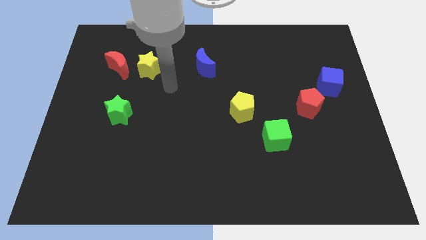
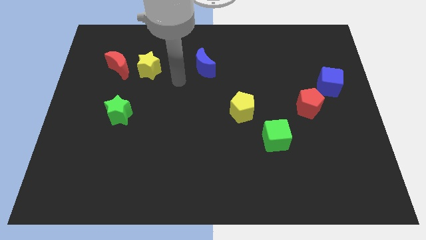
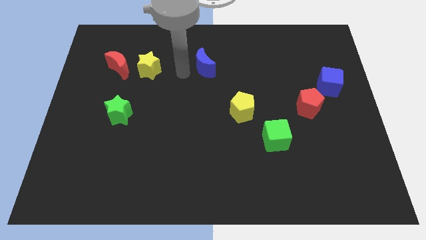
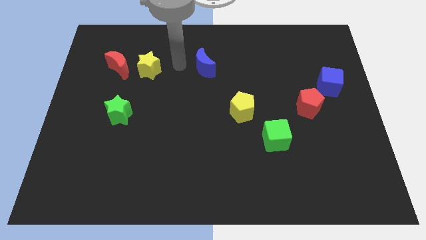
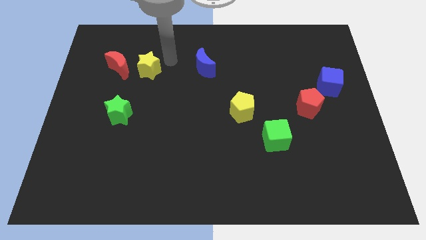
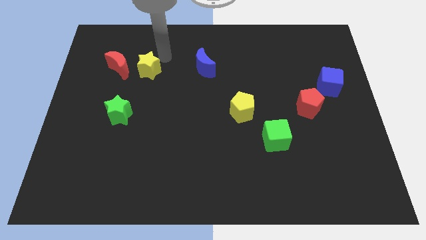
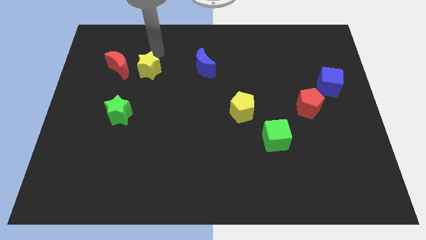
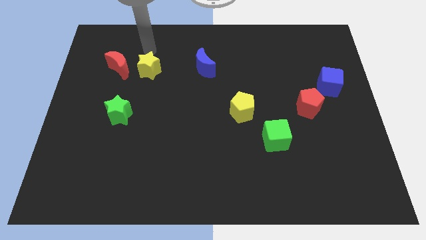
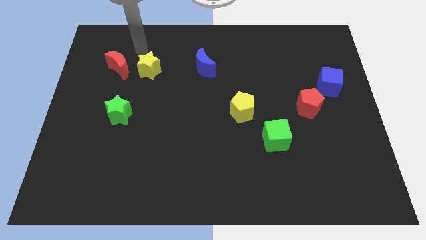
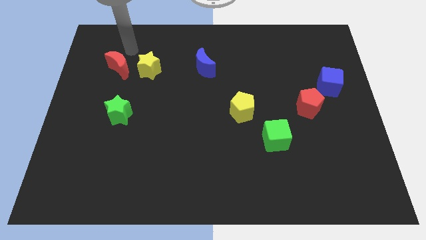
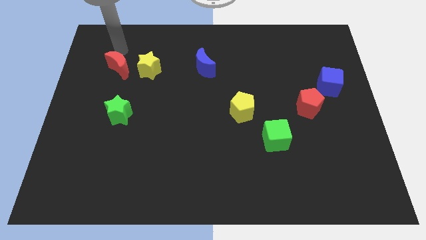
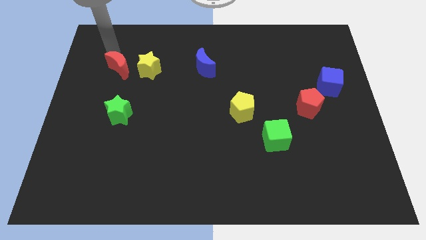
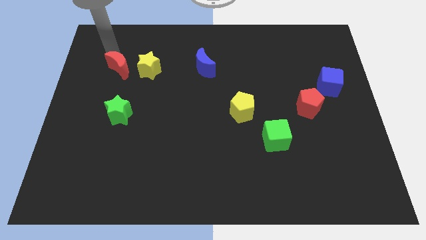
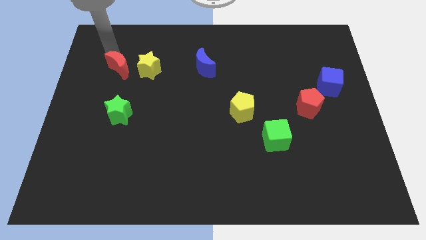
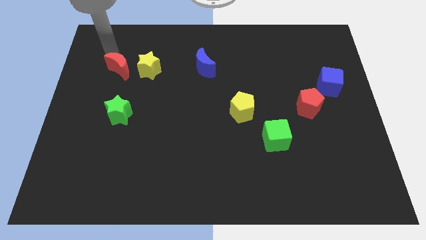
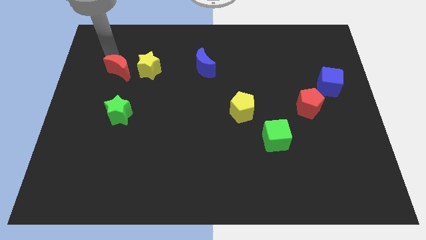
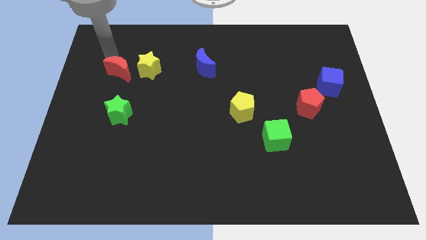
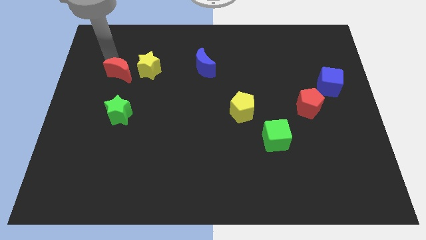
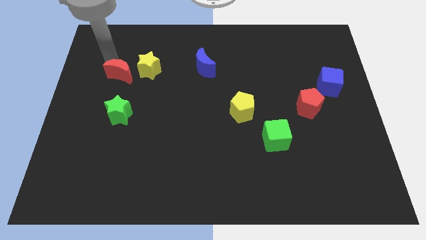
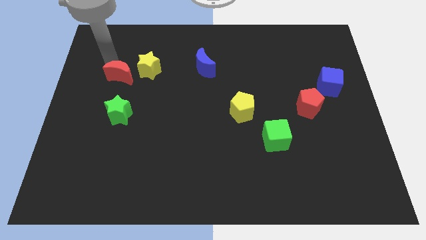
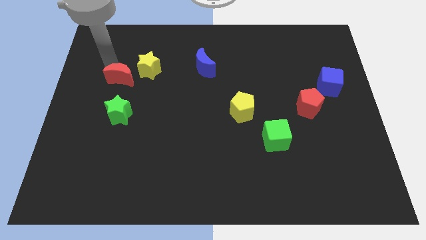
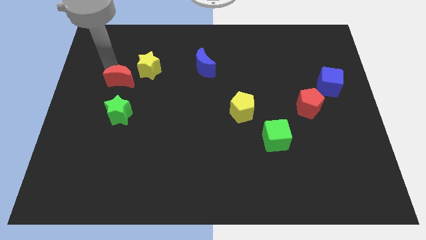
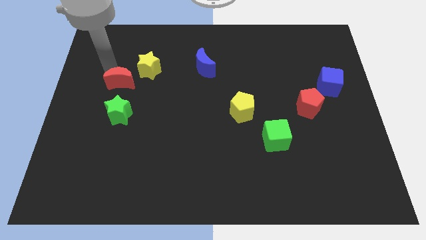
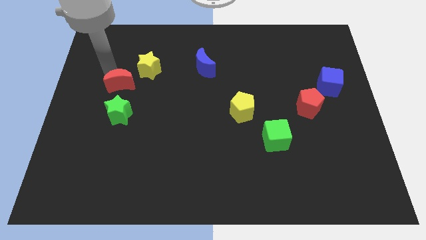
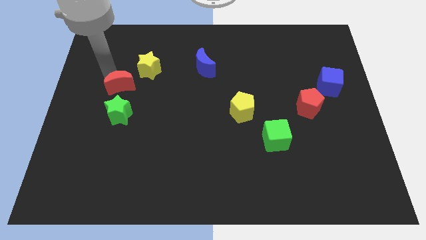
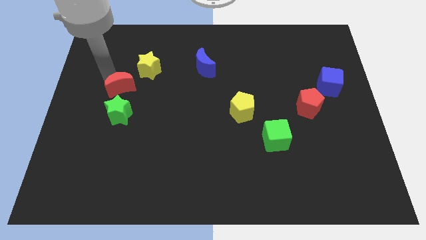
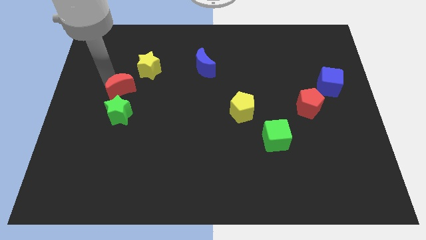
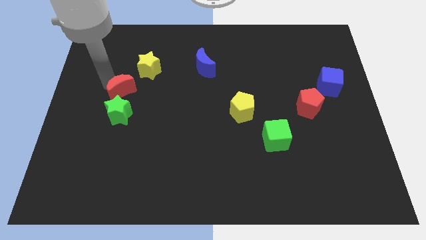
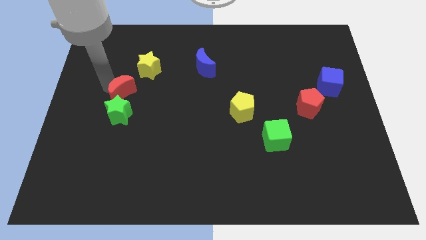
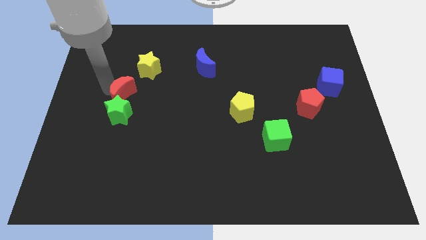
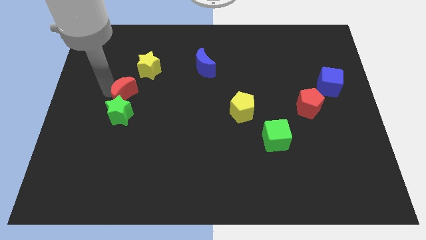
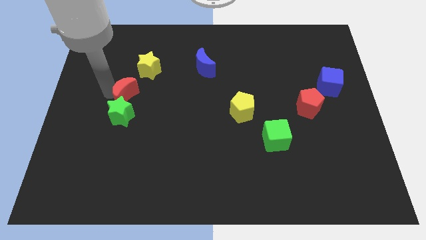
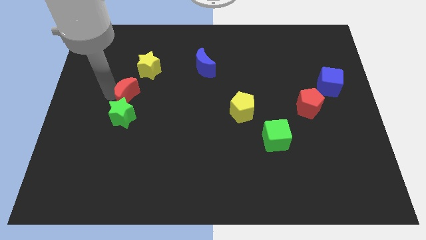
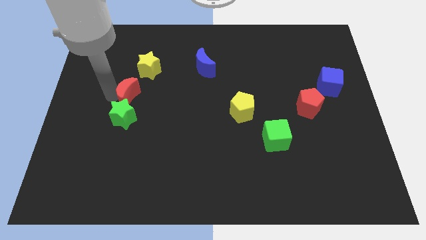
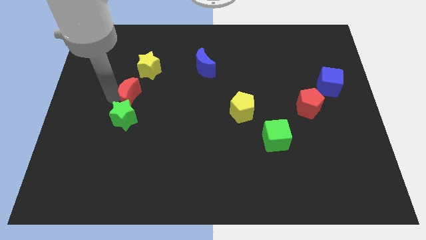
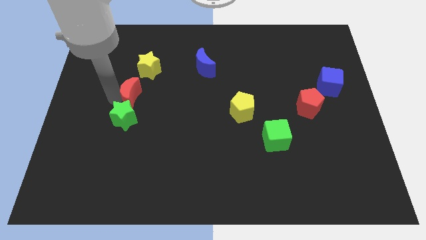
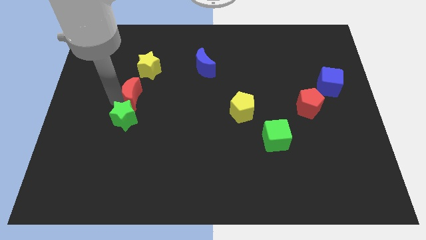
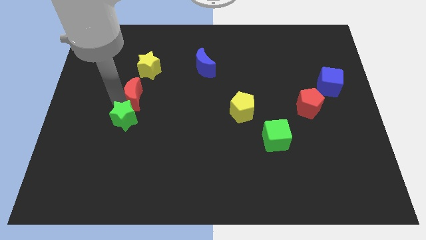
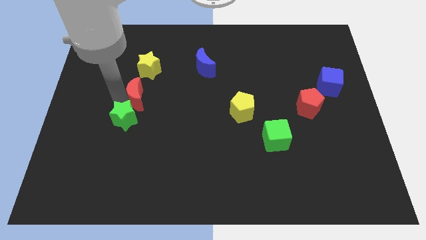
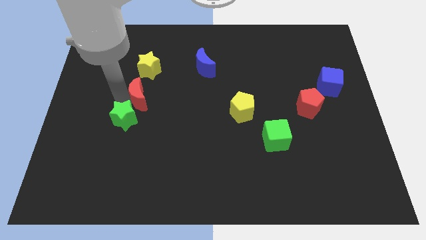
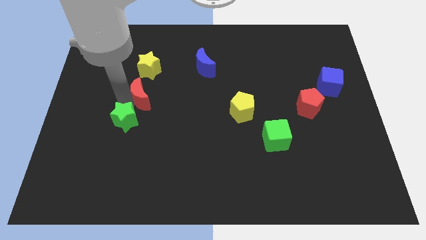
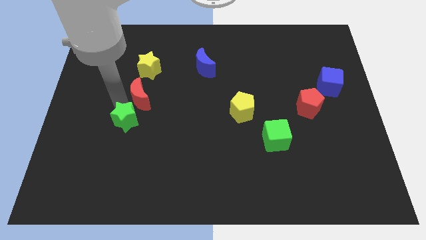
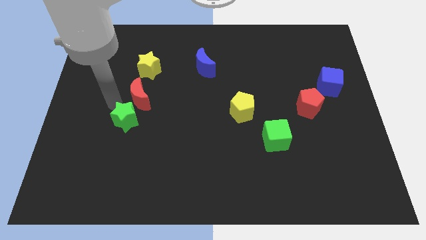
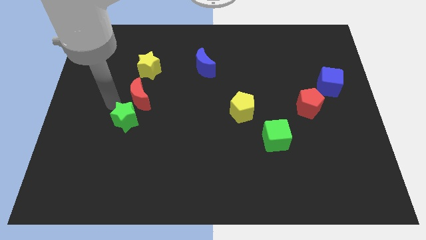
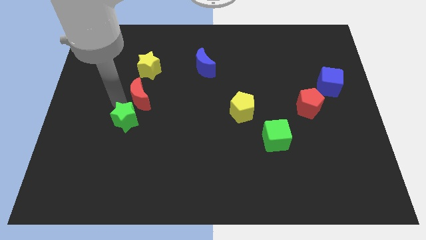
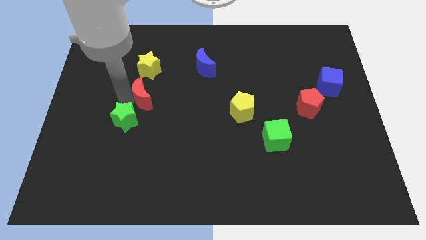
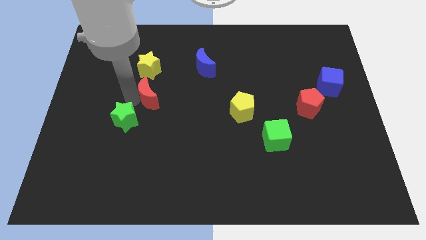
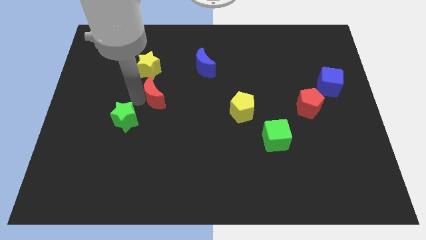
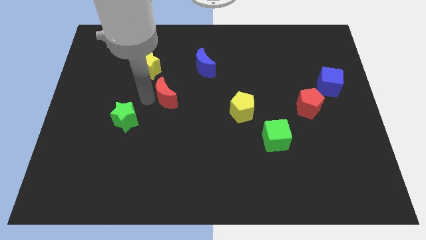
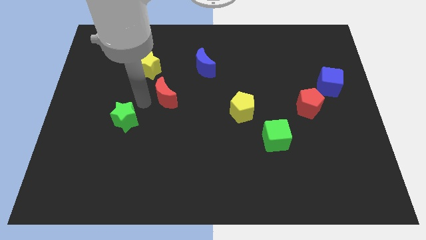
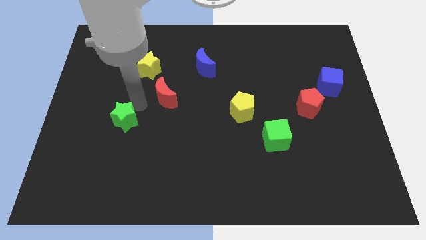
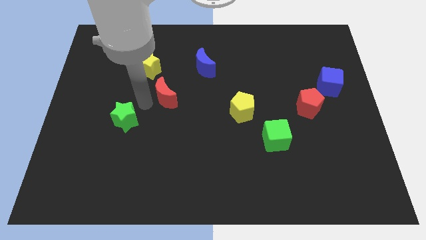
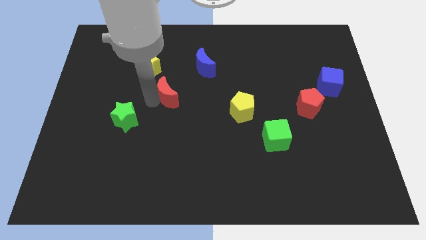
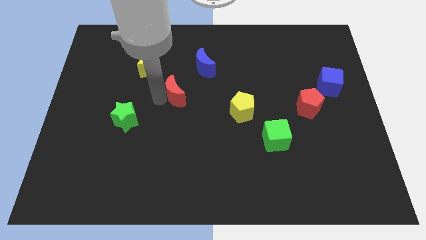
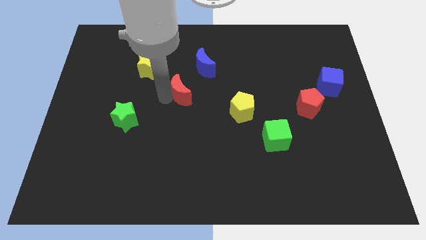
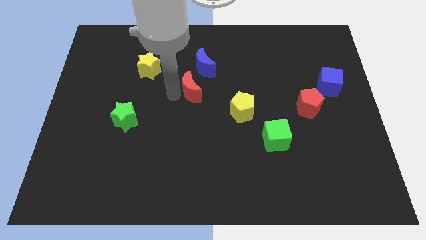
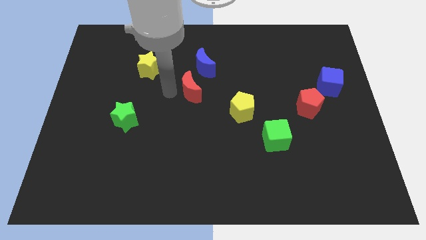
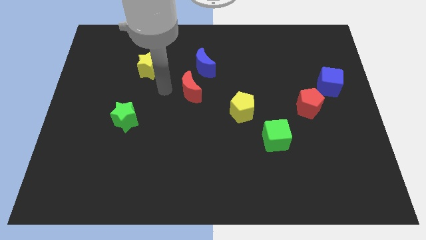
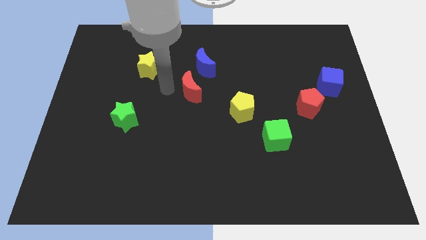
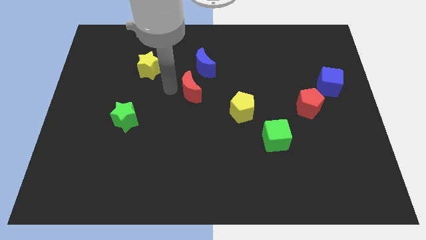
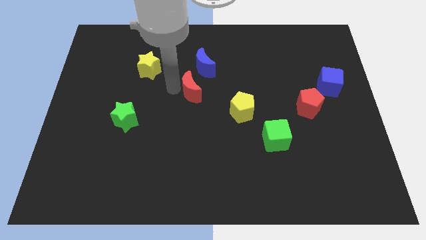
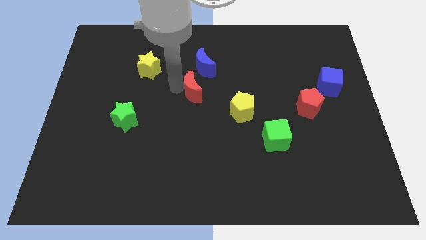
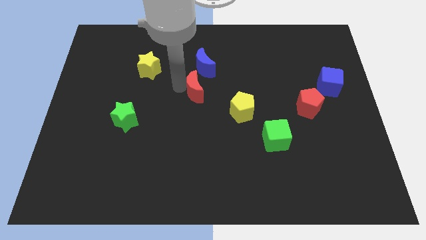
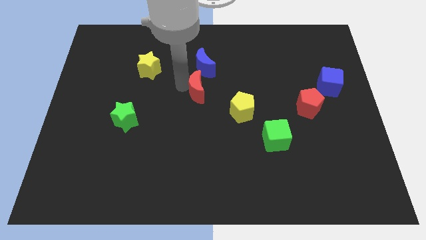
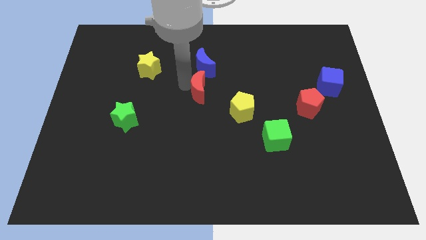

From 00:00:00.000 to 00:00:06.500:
slide the red moon diagonally up and to the left of the yellow pentagon

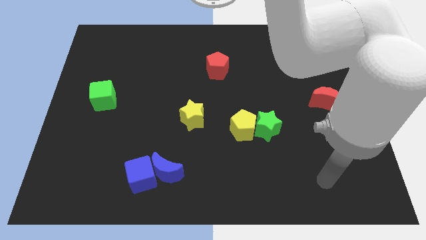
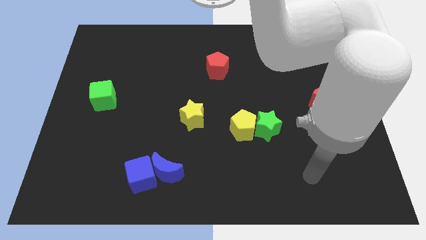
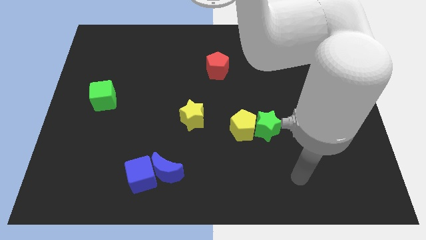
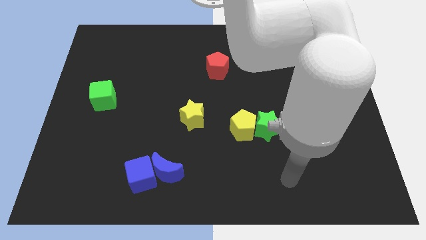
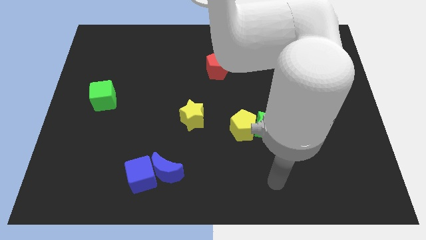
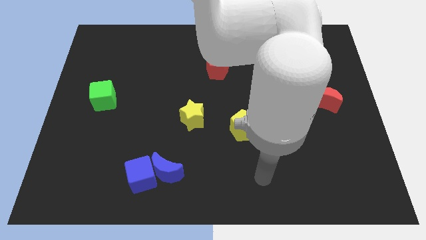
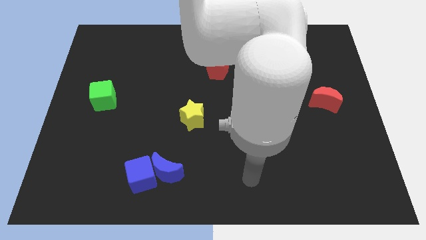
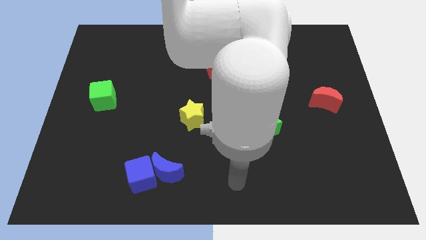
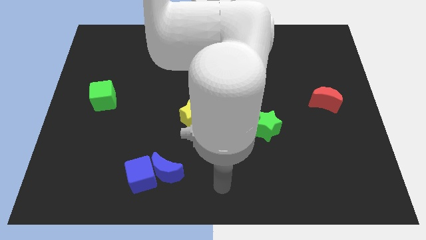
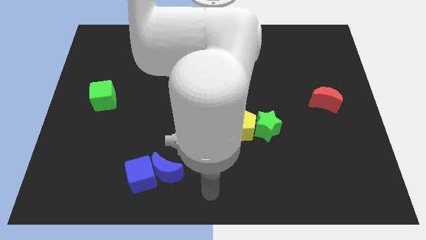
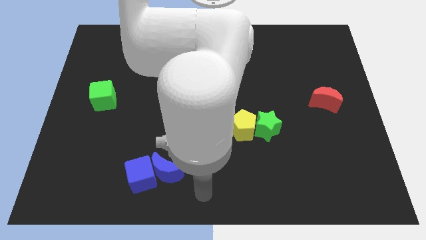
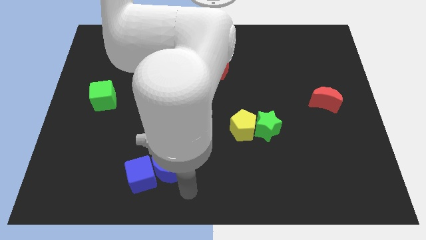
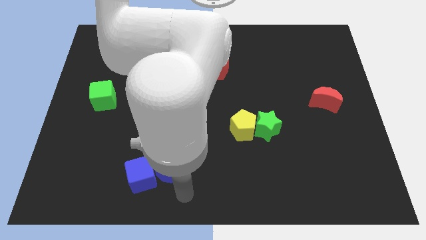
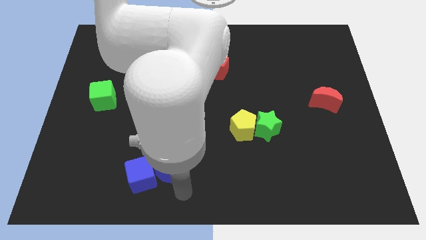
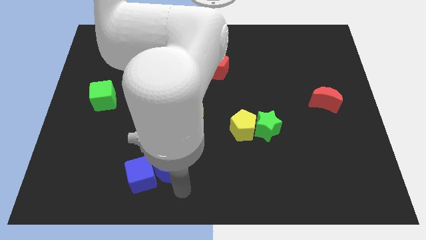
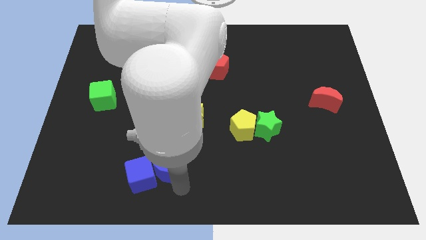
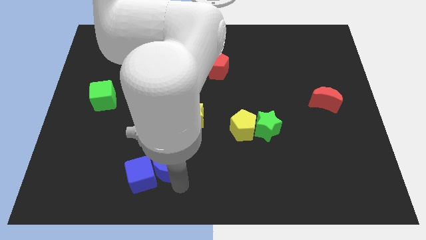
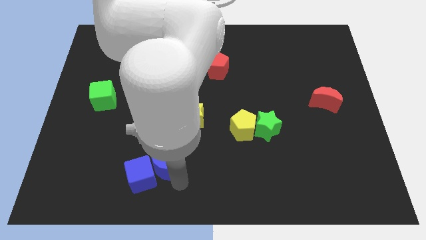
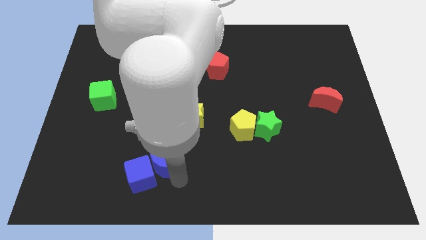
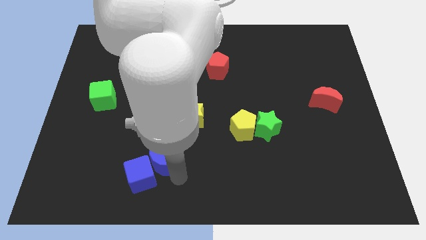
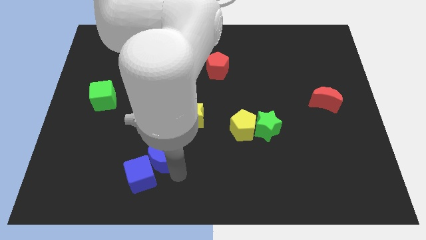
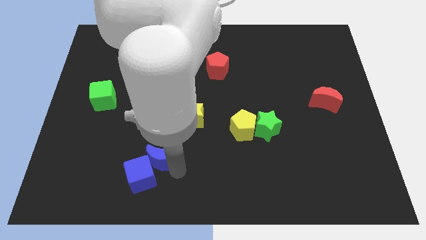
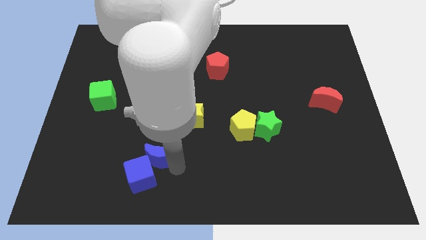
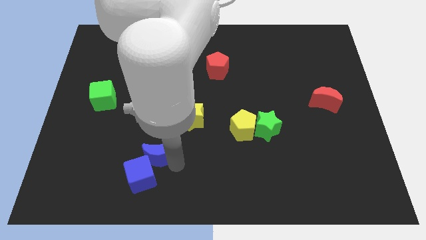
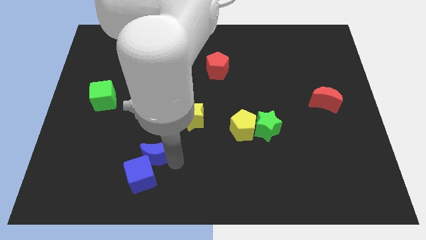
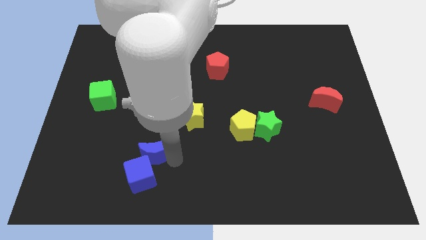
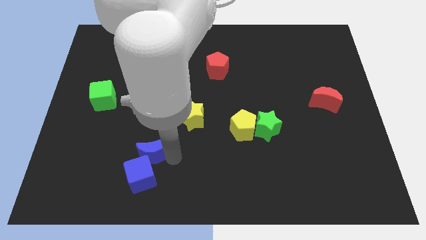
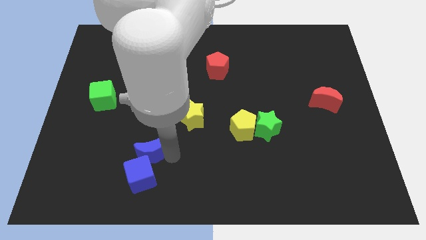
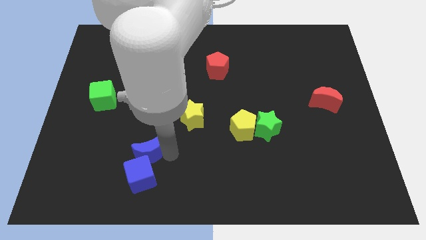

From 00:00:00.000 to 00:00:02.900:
put the blue moon diagonally up and to the left of the blue cube
